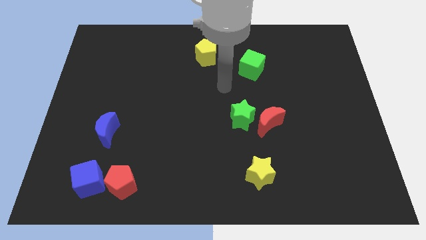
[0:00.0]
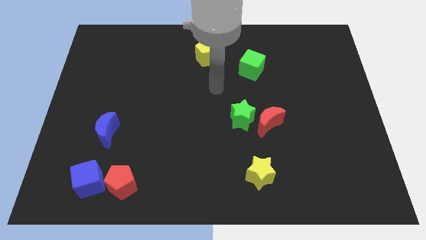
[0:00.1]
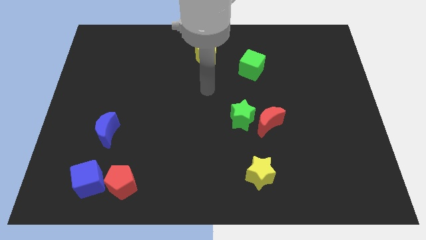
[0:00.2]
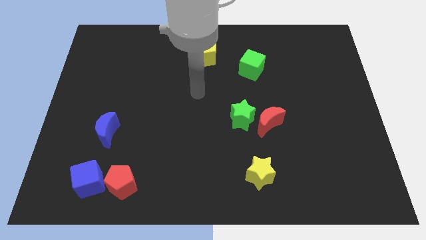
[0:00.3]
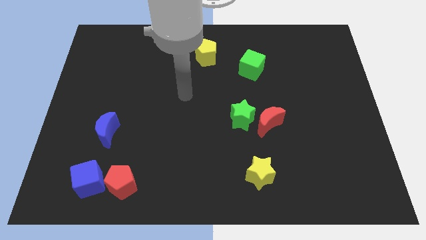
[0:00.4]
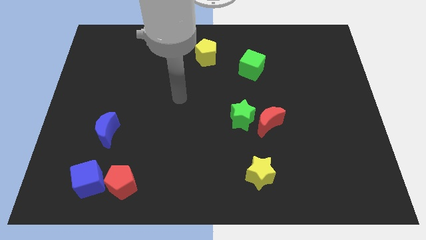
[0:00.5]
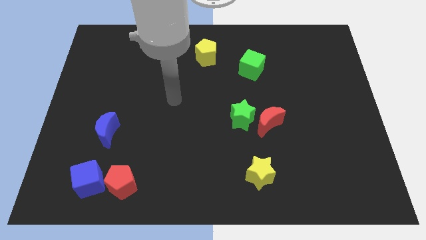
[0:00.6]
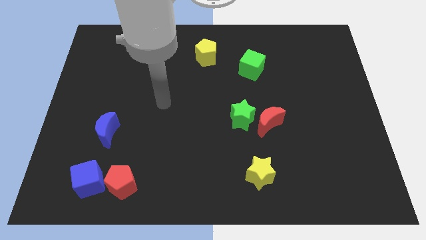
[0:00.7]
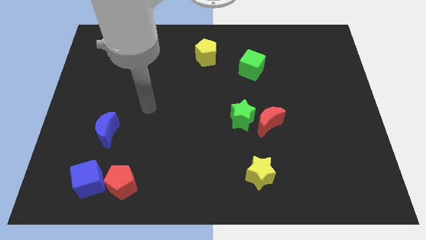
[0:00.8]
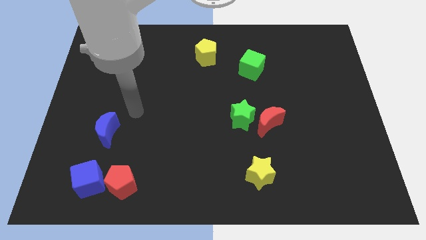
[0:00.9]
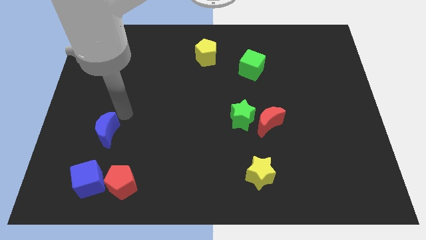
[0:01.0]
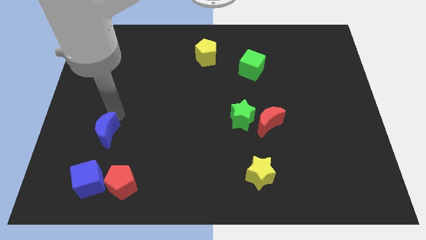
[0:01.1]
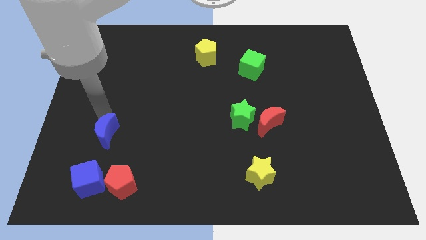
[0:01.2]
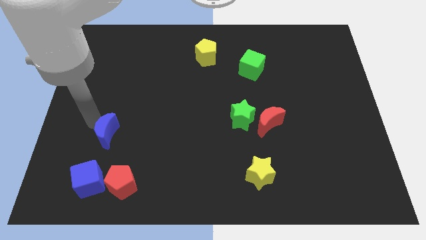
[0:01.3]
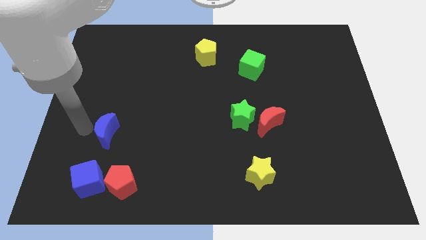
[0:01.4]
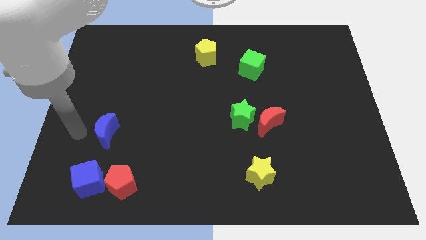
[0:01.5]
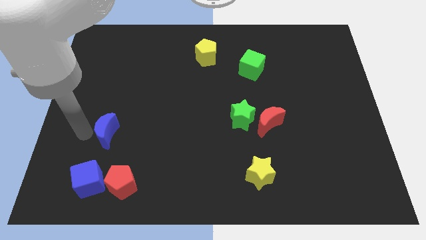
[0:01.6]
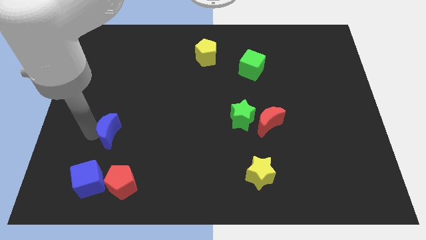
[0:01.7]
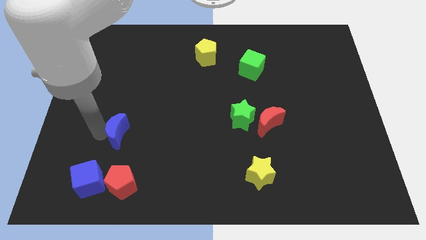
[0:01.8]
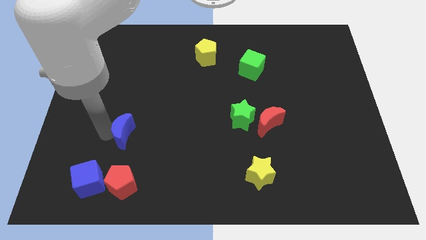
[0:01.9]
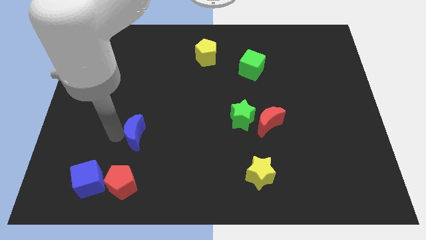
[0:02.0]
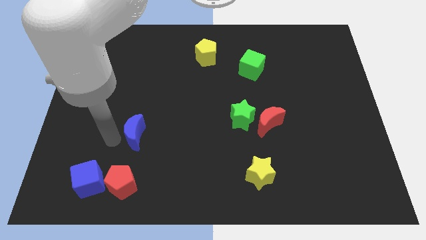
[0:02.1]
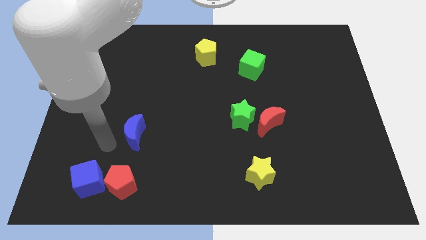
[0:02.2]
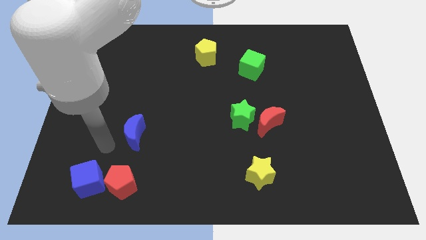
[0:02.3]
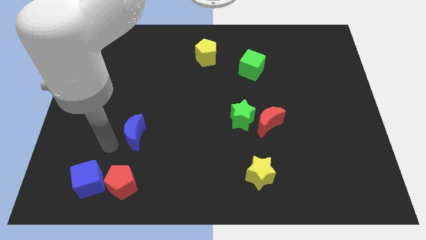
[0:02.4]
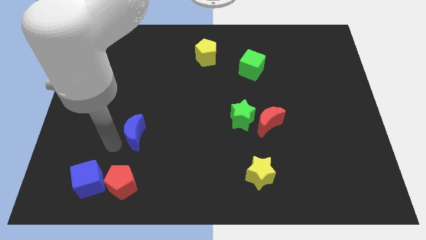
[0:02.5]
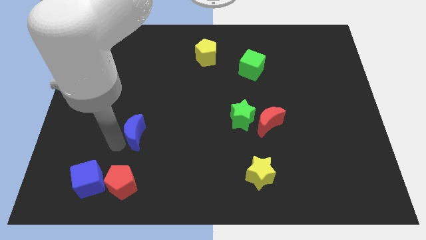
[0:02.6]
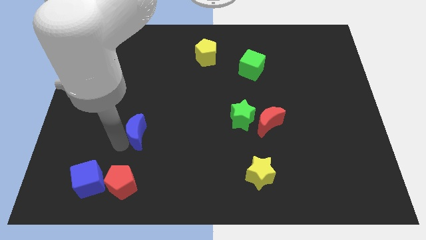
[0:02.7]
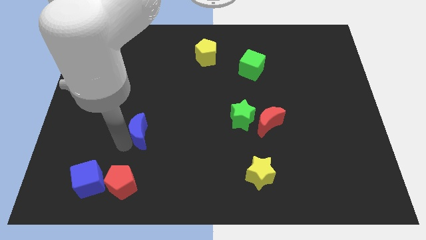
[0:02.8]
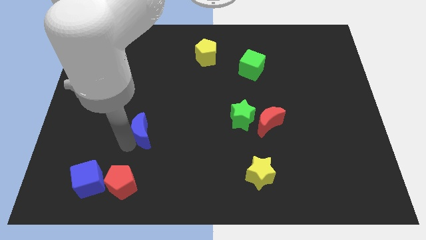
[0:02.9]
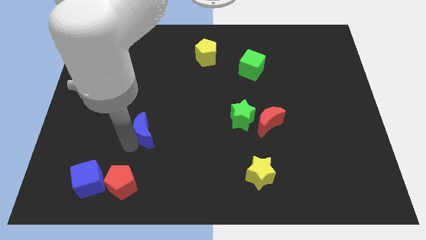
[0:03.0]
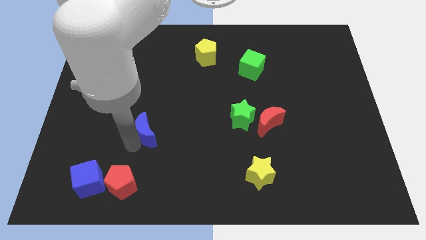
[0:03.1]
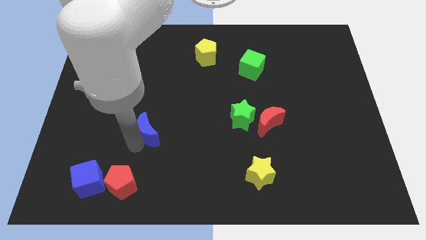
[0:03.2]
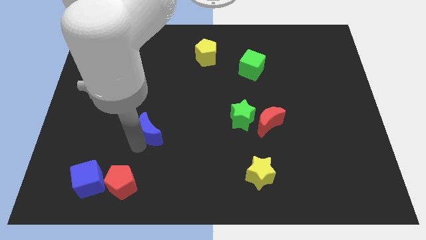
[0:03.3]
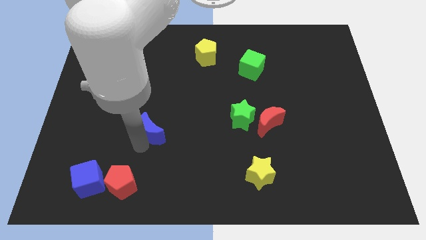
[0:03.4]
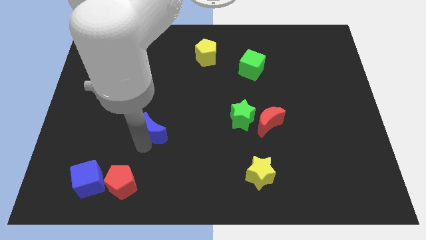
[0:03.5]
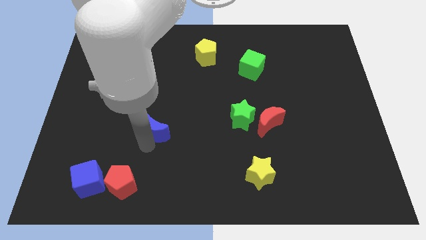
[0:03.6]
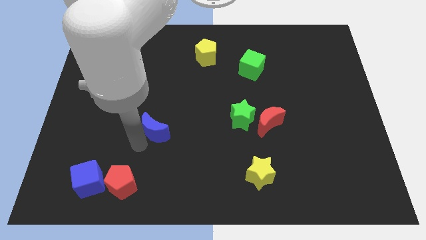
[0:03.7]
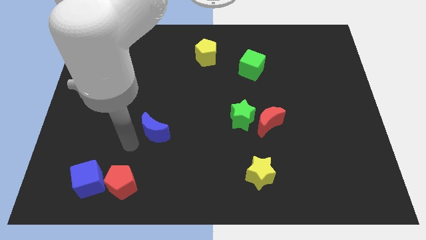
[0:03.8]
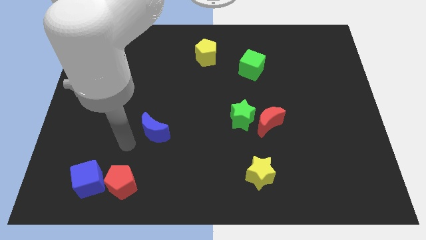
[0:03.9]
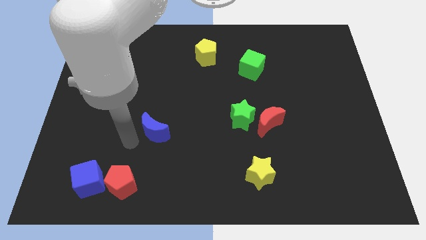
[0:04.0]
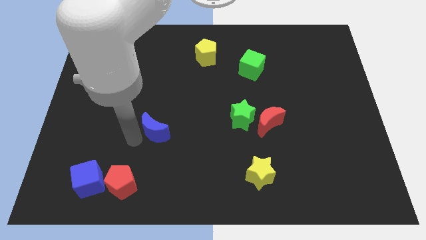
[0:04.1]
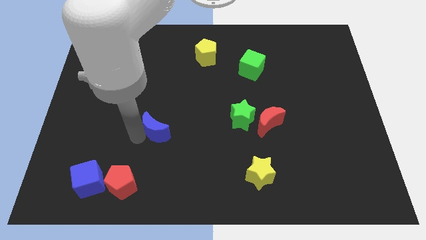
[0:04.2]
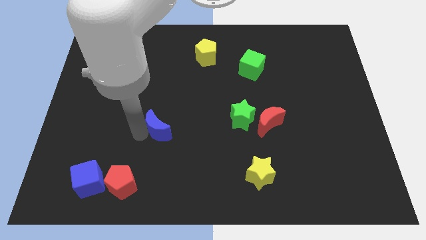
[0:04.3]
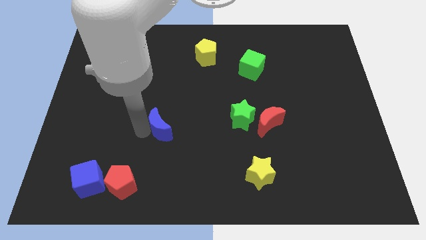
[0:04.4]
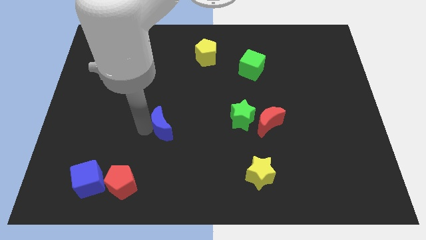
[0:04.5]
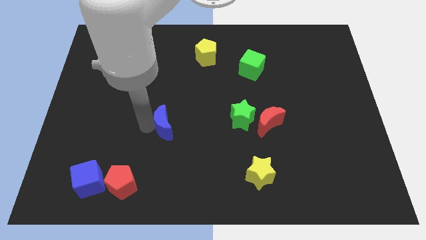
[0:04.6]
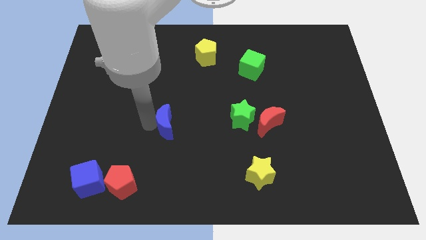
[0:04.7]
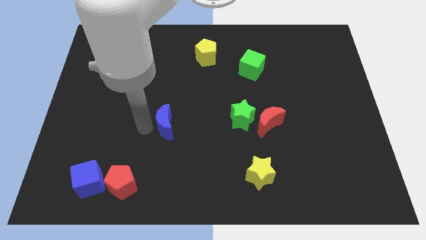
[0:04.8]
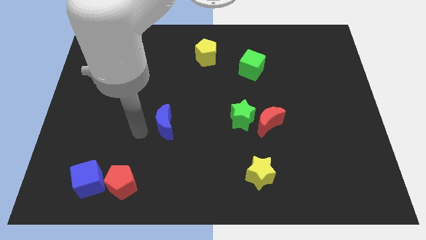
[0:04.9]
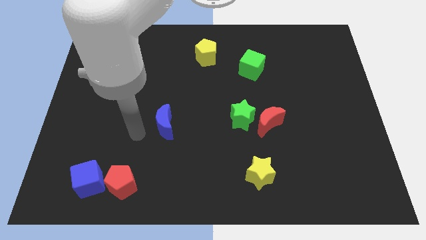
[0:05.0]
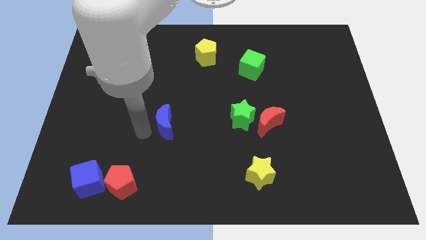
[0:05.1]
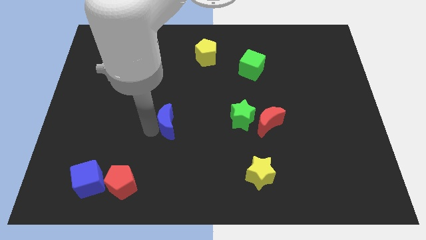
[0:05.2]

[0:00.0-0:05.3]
move the blue moon to the middle
